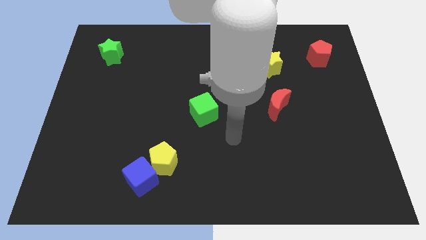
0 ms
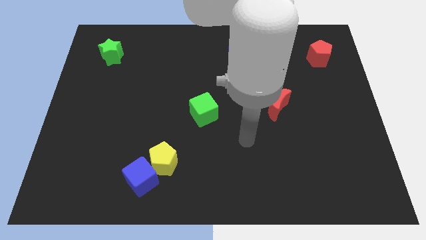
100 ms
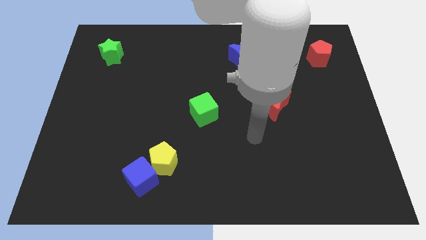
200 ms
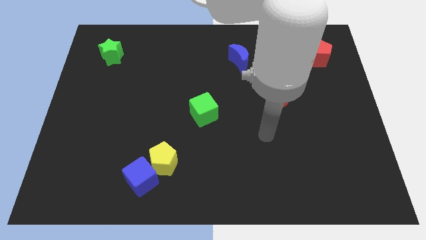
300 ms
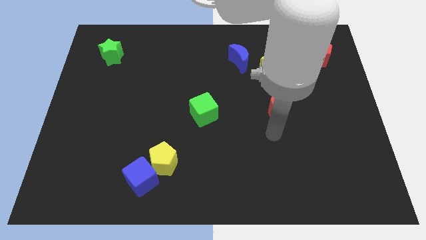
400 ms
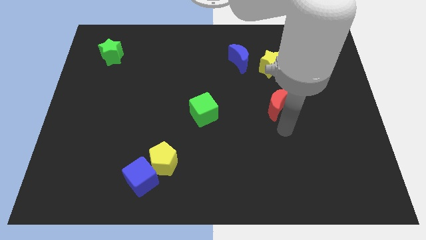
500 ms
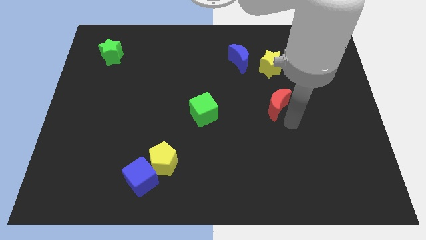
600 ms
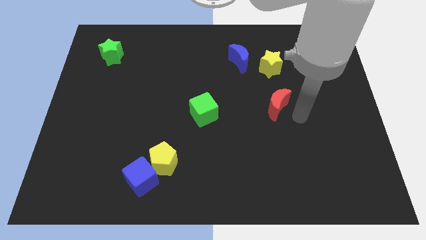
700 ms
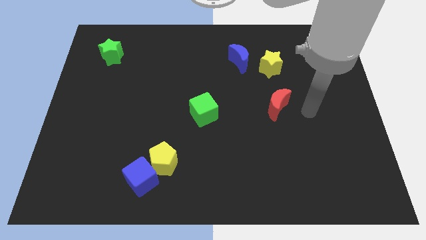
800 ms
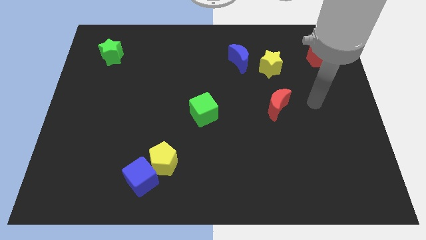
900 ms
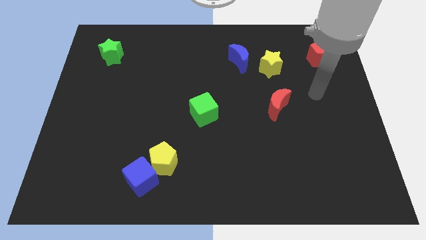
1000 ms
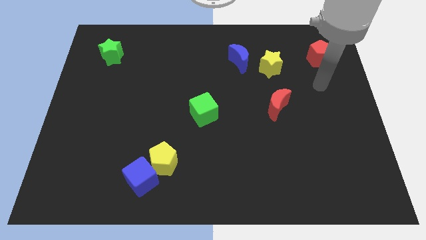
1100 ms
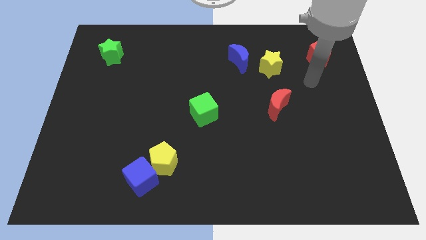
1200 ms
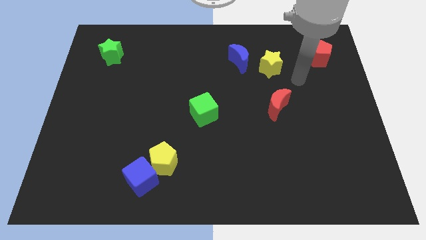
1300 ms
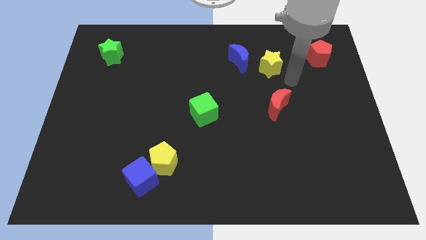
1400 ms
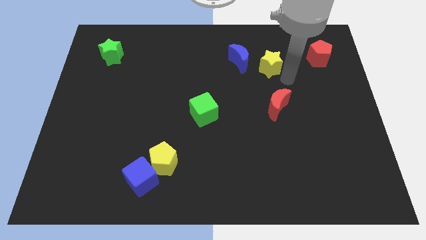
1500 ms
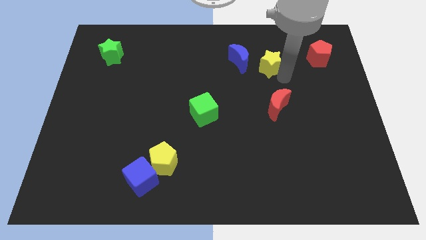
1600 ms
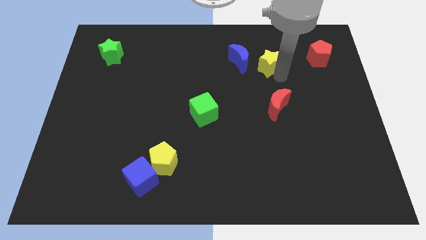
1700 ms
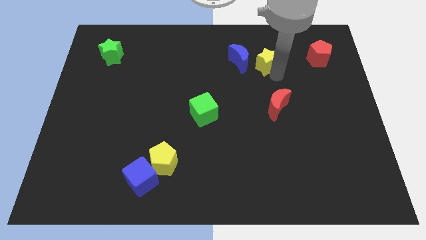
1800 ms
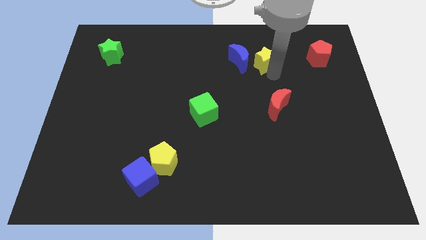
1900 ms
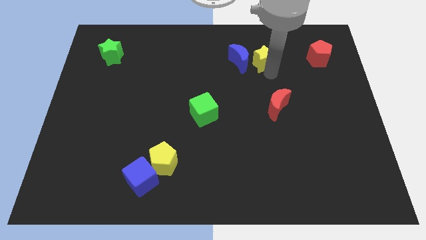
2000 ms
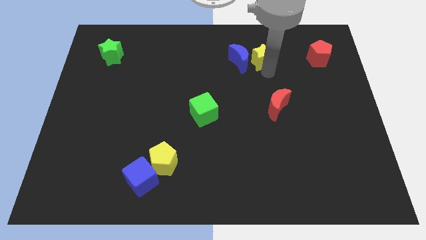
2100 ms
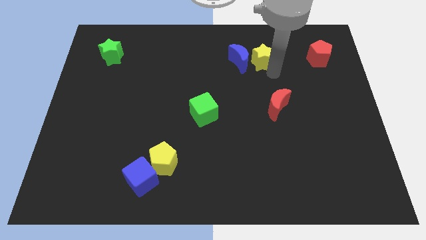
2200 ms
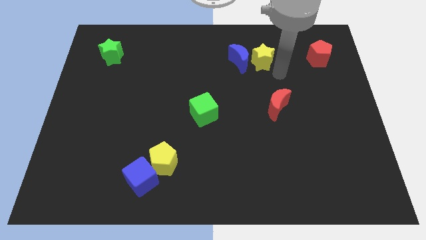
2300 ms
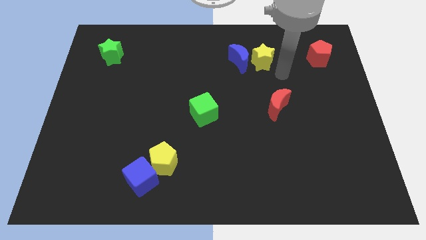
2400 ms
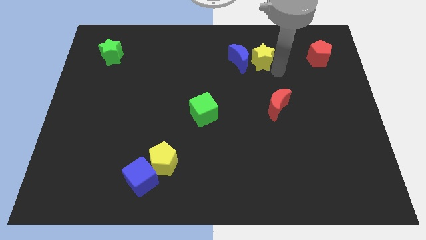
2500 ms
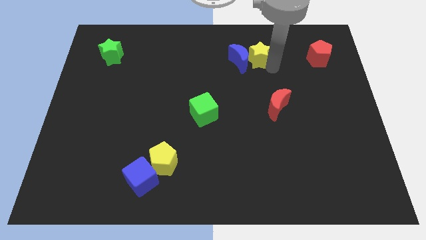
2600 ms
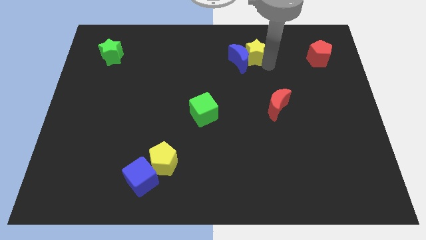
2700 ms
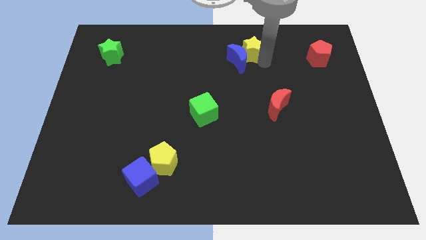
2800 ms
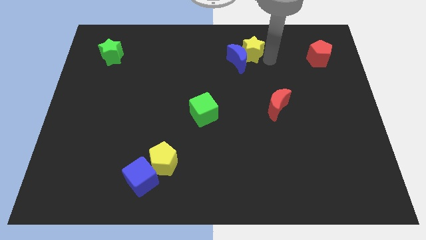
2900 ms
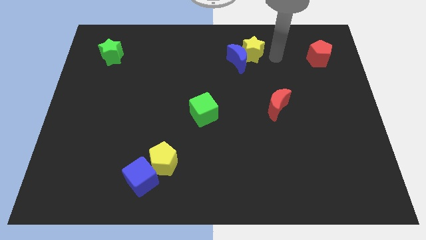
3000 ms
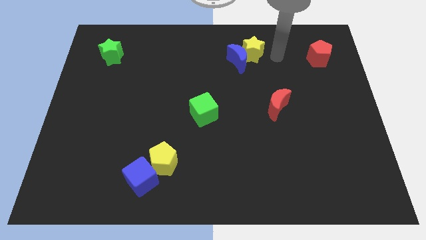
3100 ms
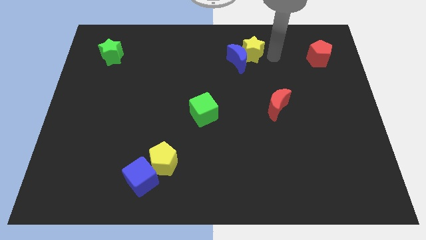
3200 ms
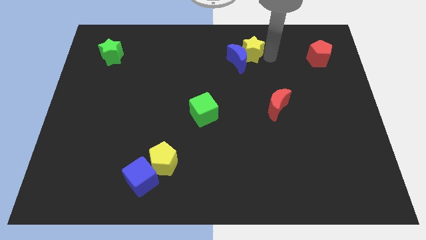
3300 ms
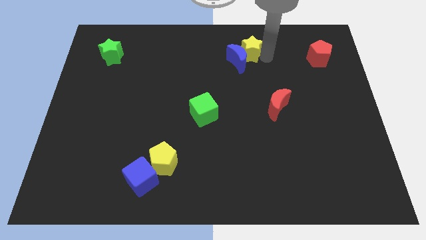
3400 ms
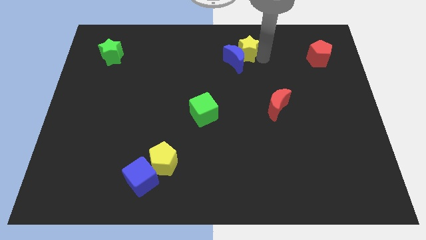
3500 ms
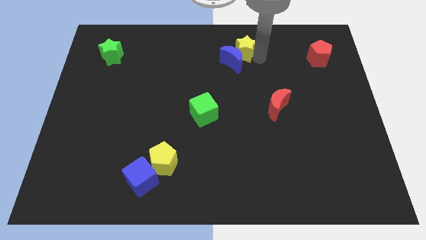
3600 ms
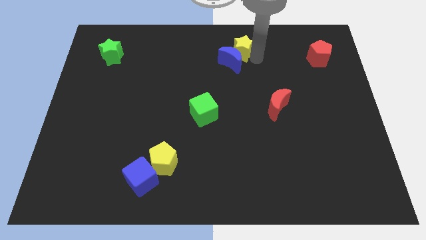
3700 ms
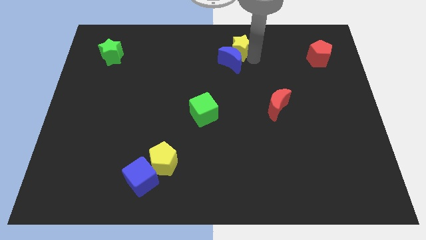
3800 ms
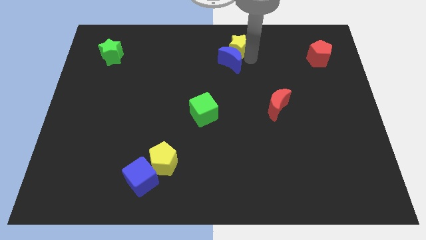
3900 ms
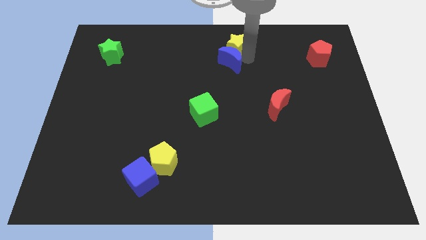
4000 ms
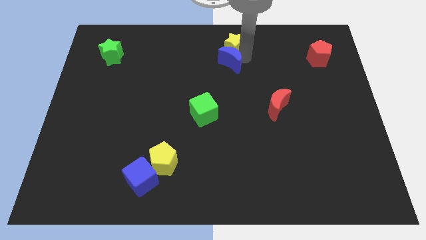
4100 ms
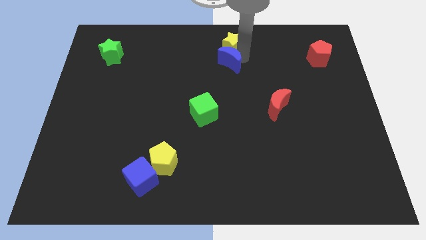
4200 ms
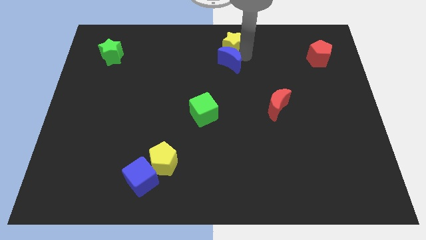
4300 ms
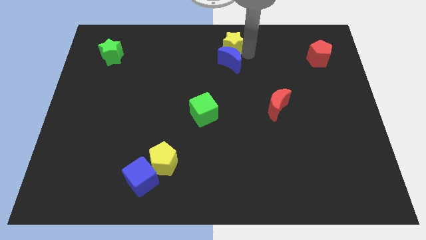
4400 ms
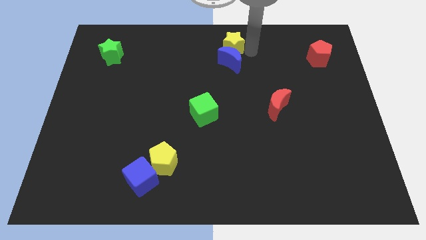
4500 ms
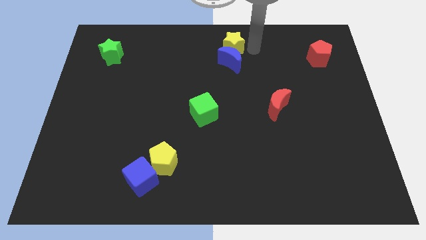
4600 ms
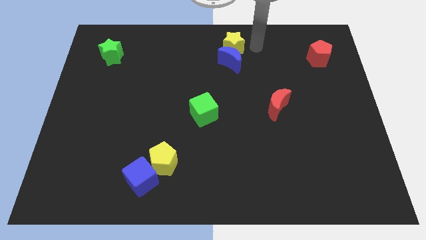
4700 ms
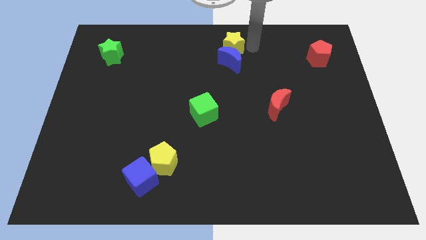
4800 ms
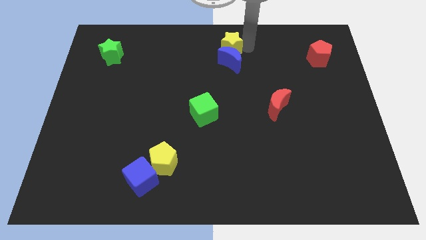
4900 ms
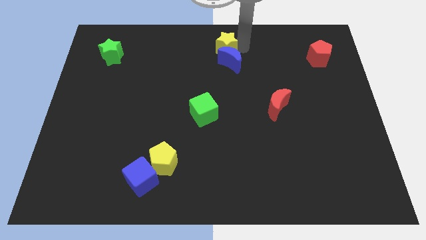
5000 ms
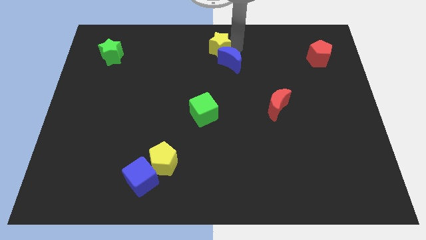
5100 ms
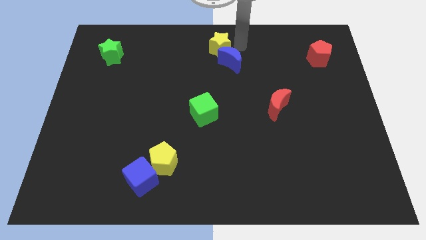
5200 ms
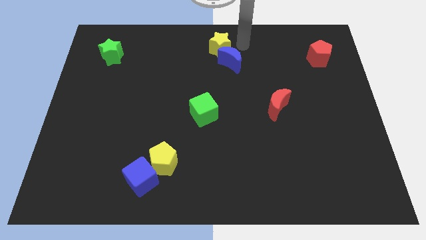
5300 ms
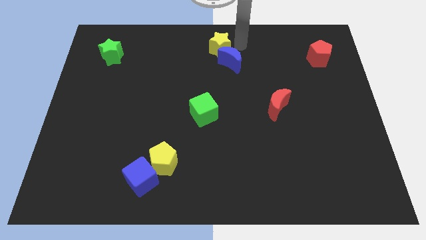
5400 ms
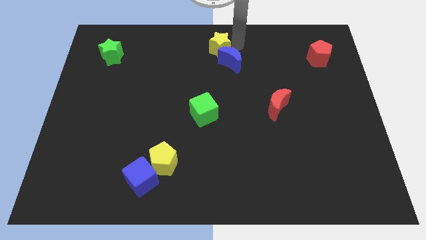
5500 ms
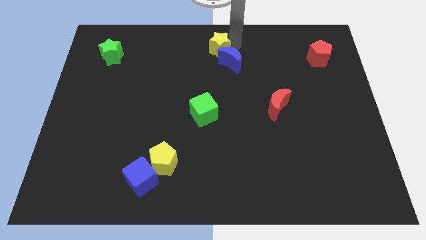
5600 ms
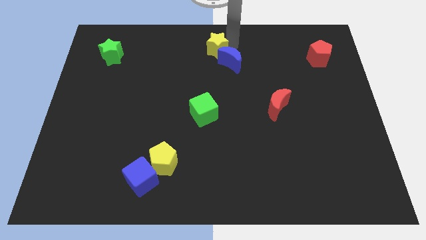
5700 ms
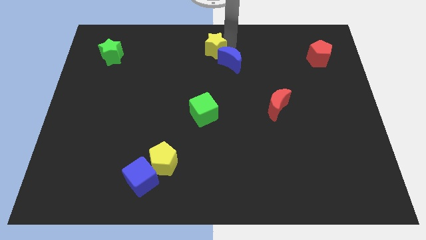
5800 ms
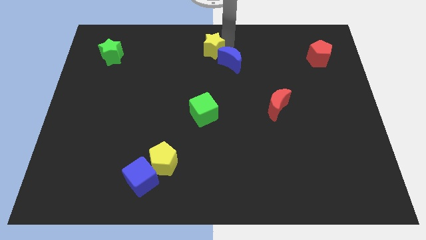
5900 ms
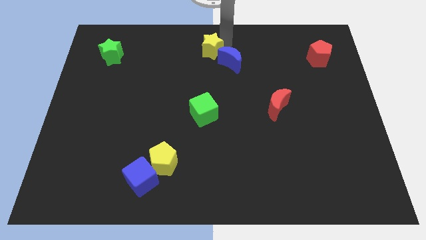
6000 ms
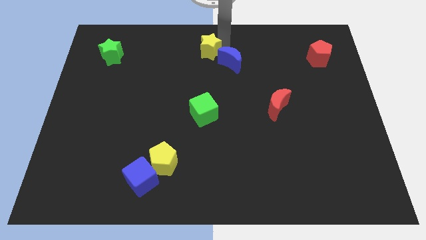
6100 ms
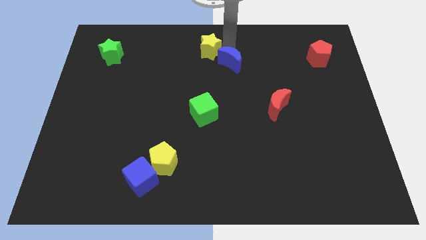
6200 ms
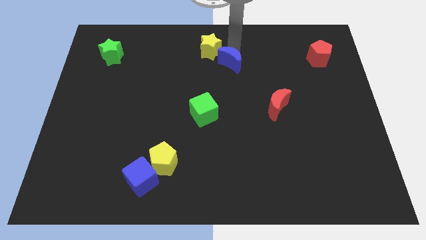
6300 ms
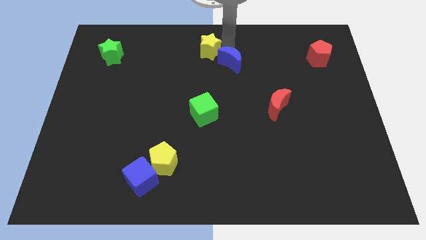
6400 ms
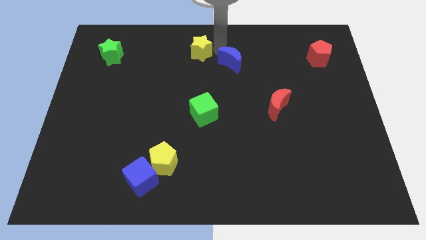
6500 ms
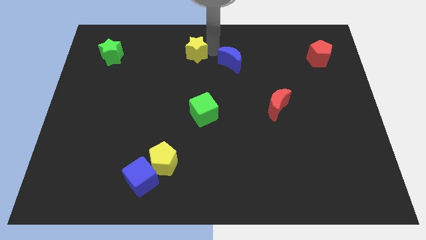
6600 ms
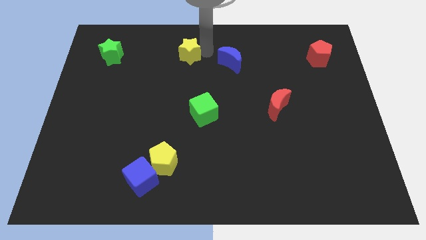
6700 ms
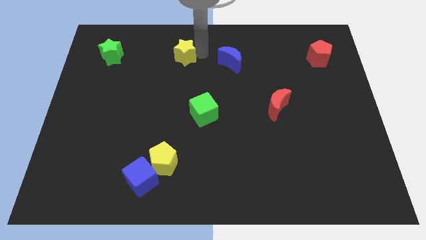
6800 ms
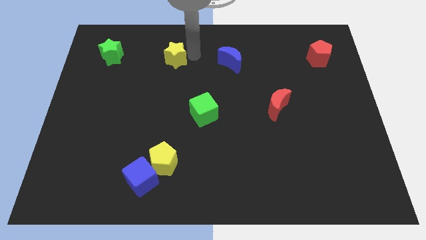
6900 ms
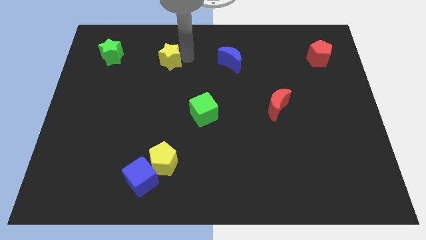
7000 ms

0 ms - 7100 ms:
move the yellow star to the right side of the green star

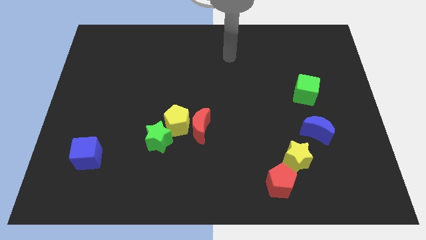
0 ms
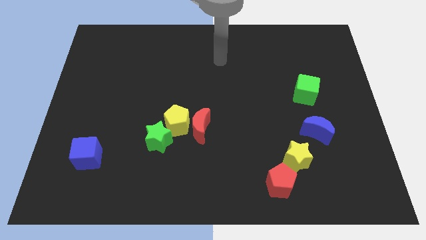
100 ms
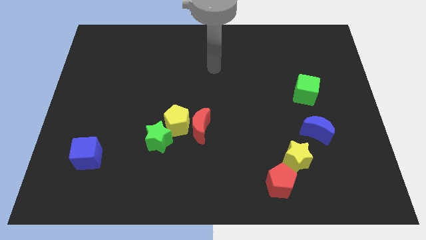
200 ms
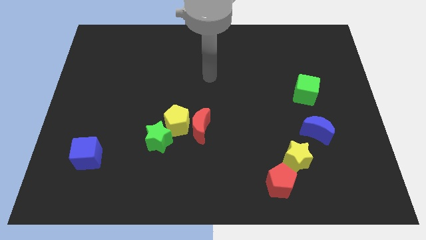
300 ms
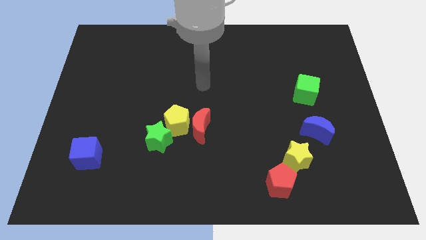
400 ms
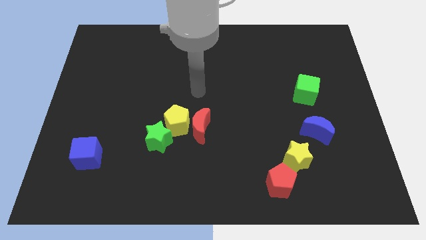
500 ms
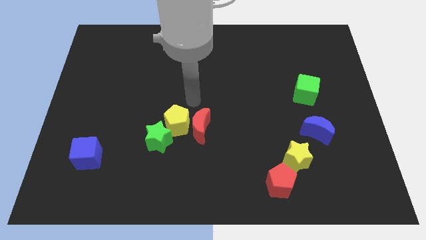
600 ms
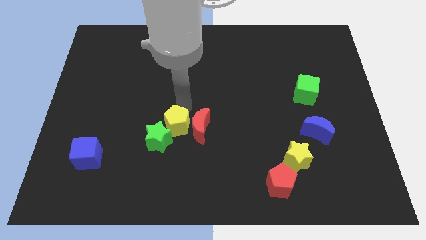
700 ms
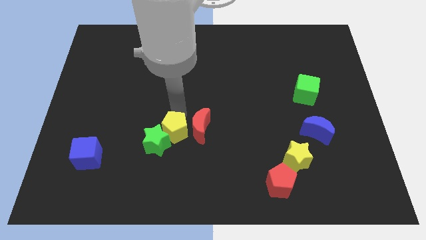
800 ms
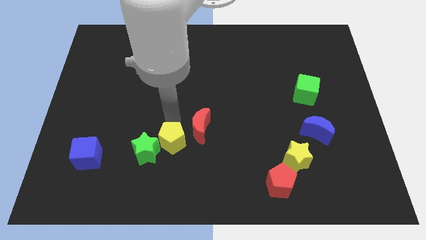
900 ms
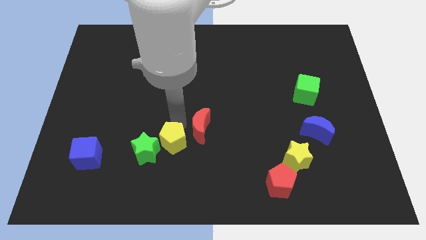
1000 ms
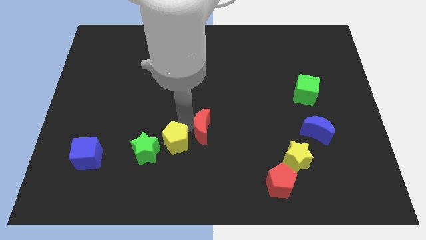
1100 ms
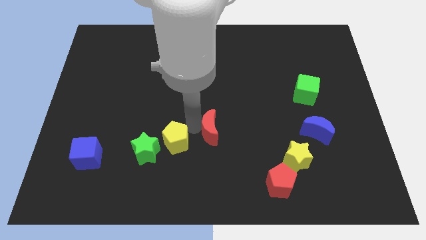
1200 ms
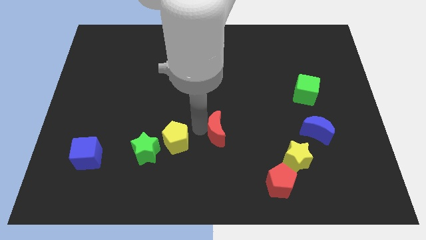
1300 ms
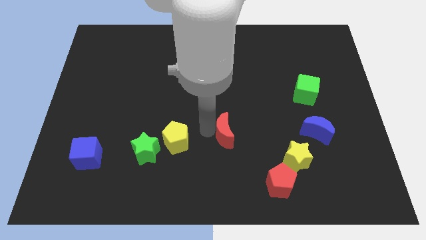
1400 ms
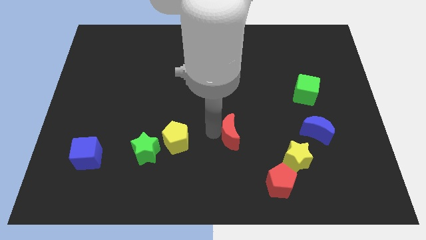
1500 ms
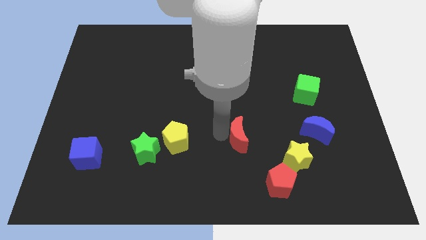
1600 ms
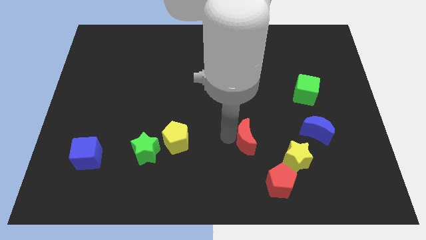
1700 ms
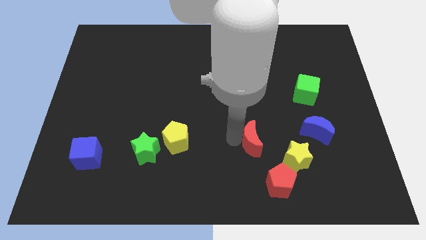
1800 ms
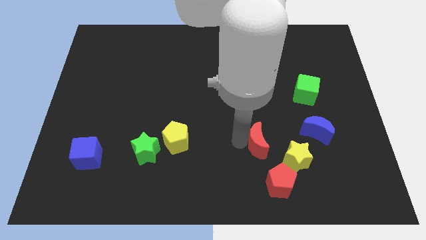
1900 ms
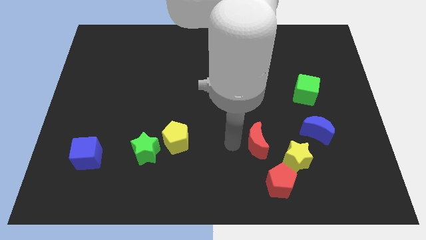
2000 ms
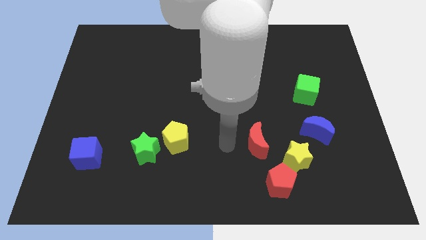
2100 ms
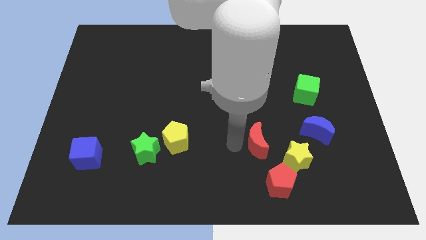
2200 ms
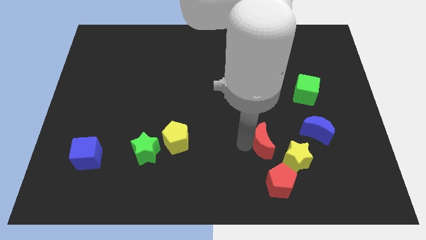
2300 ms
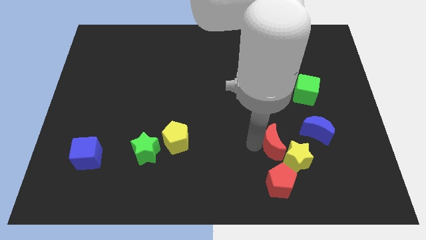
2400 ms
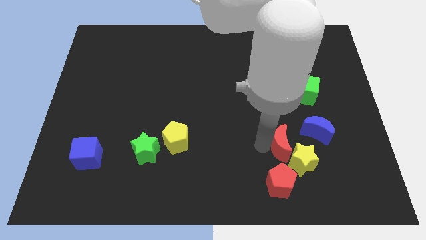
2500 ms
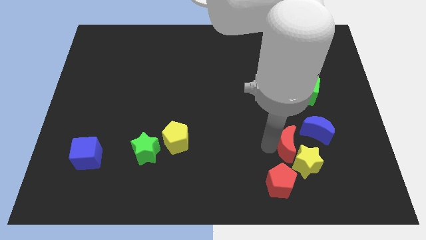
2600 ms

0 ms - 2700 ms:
slide the red moon to the top right of the red pentagon
